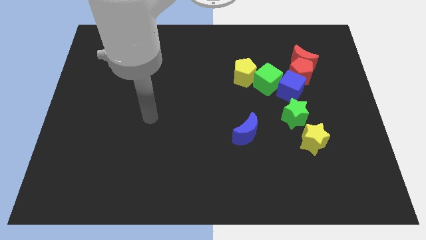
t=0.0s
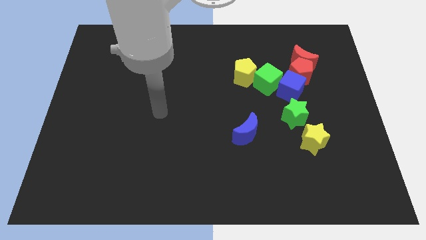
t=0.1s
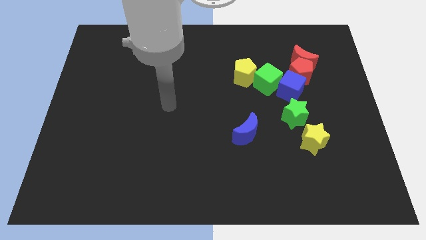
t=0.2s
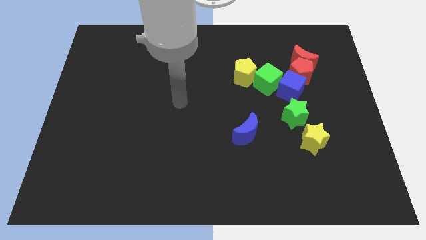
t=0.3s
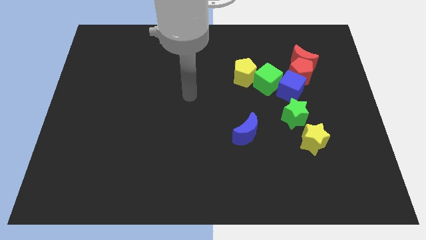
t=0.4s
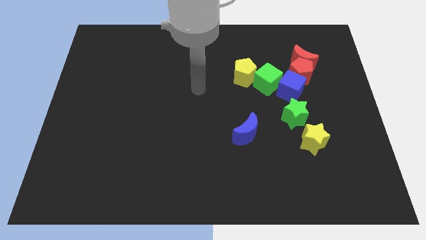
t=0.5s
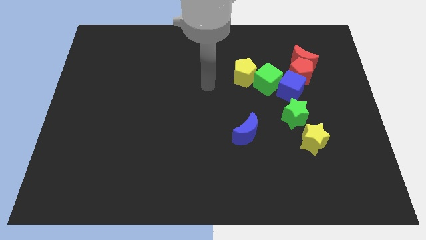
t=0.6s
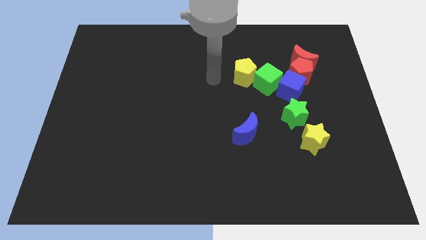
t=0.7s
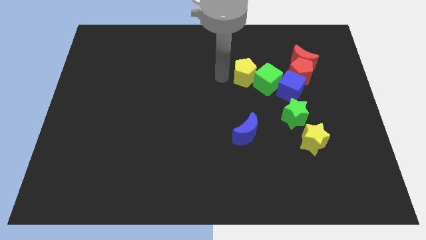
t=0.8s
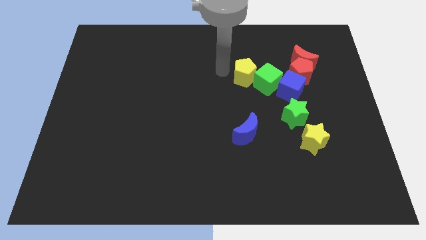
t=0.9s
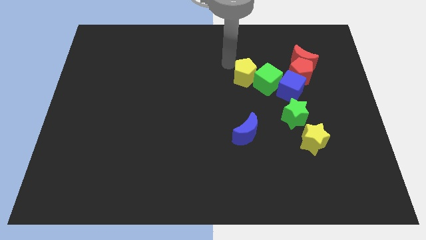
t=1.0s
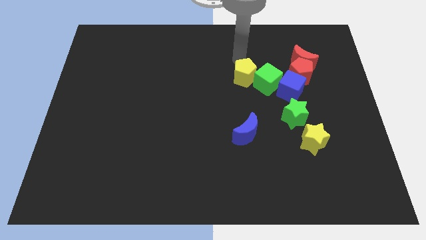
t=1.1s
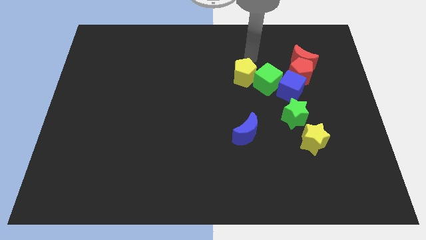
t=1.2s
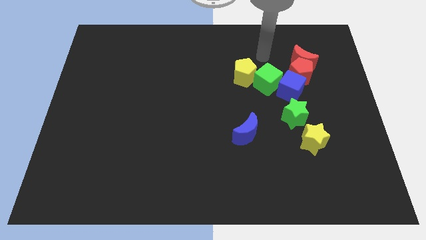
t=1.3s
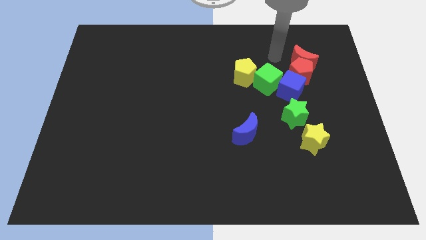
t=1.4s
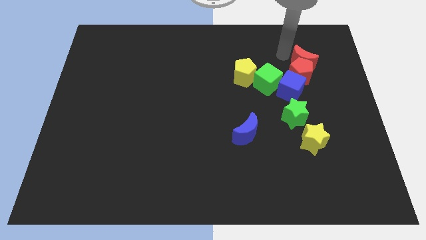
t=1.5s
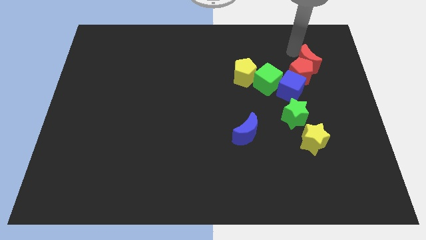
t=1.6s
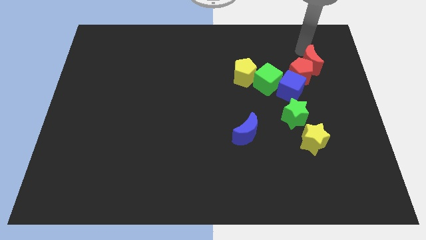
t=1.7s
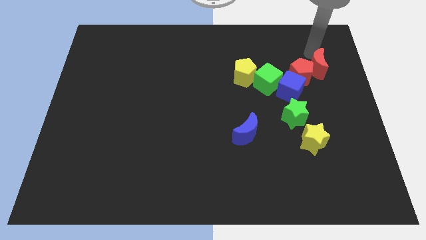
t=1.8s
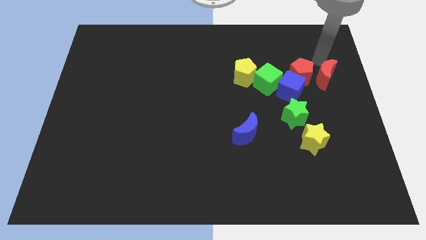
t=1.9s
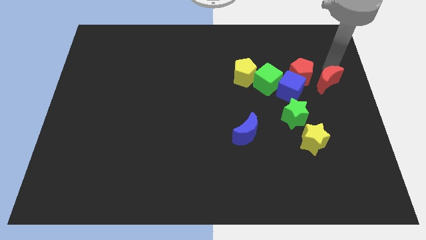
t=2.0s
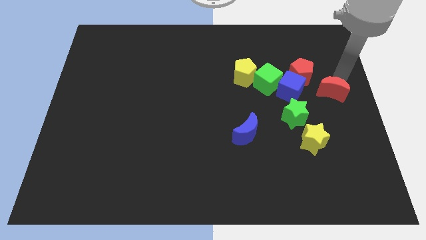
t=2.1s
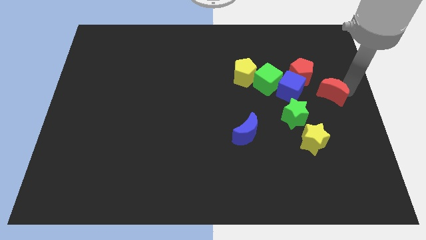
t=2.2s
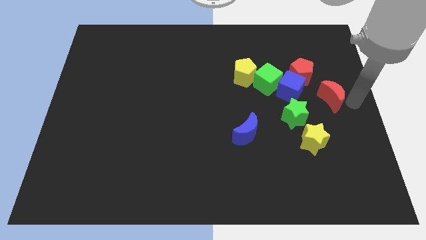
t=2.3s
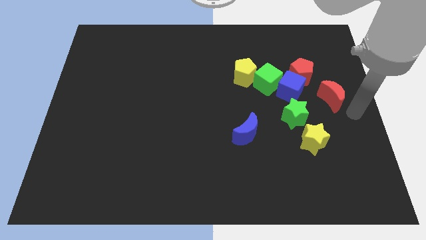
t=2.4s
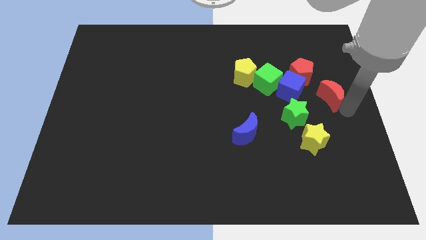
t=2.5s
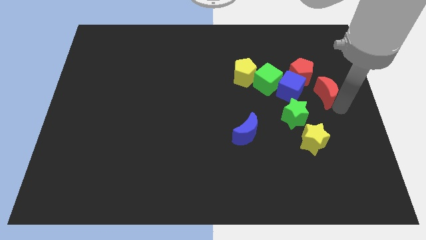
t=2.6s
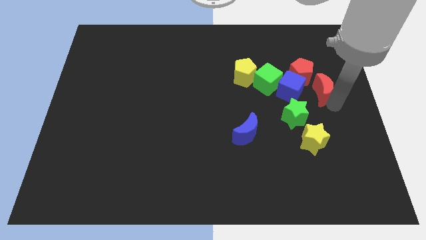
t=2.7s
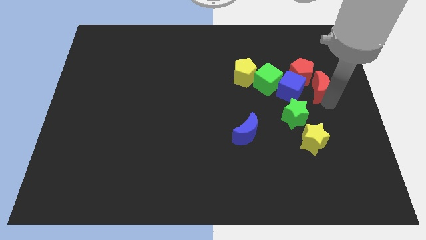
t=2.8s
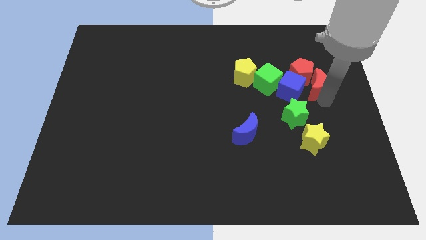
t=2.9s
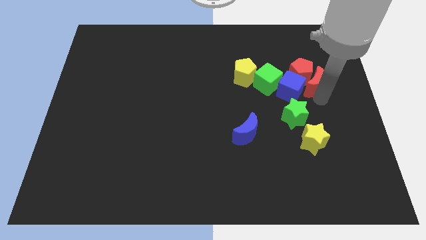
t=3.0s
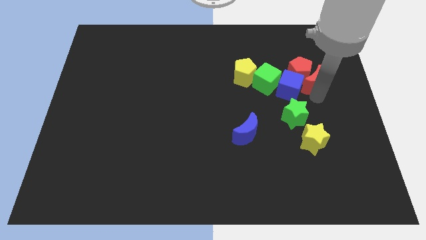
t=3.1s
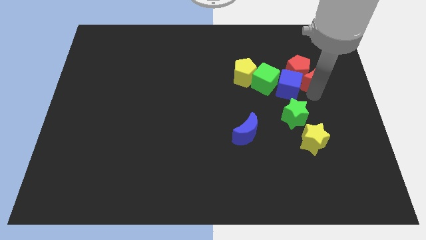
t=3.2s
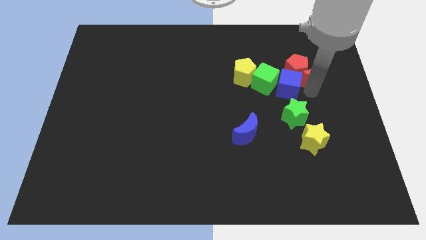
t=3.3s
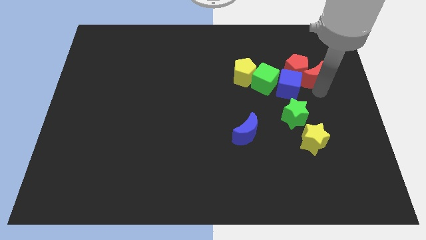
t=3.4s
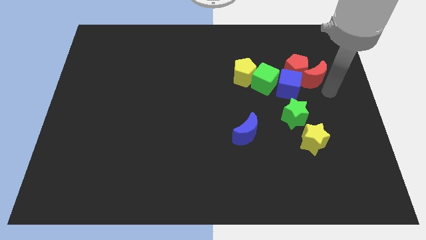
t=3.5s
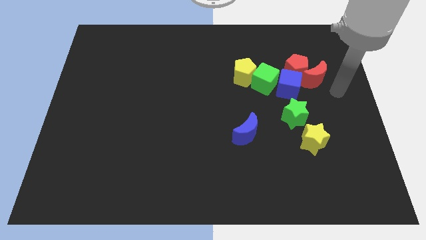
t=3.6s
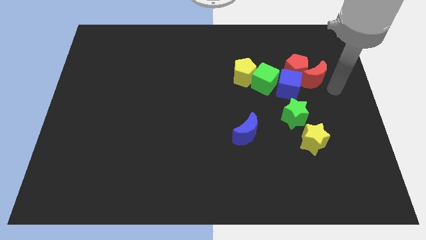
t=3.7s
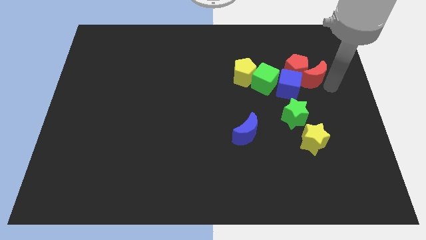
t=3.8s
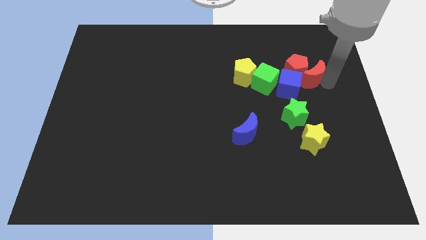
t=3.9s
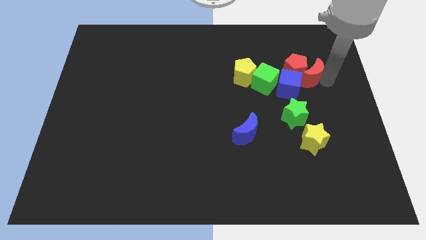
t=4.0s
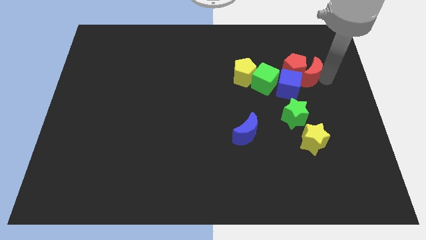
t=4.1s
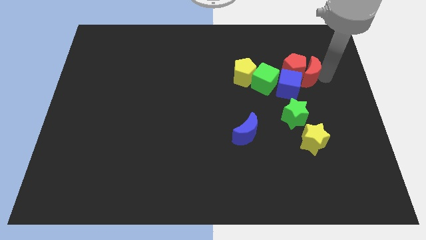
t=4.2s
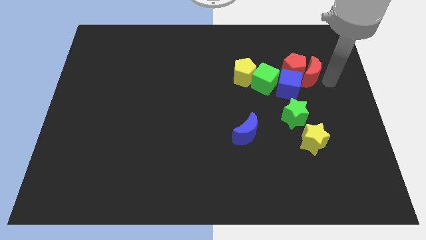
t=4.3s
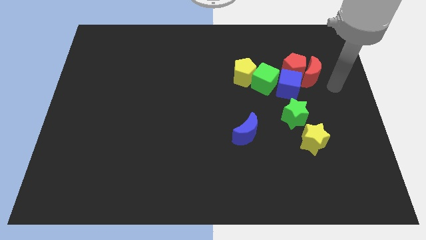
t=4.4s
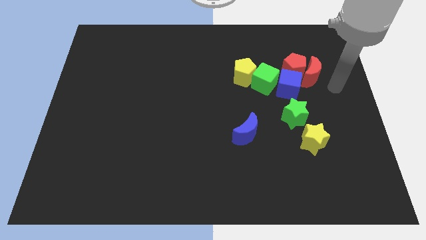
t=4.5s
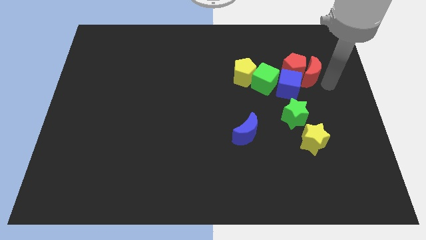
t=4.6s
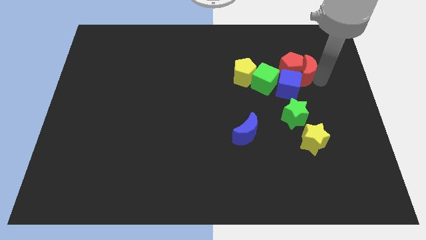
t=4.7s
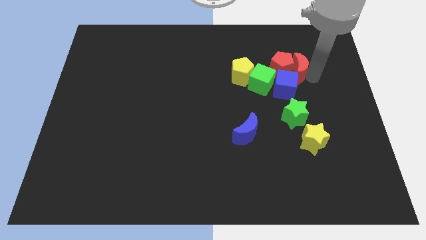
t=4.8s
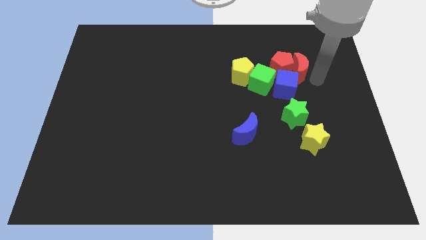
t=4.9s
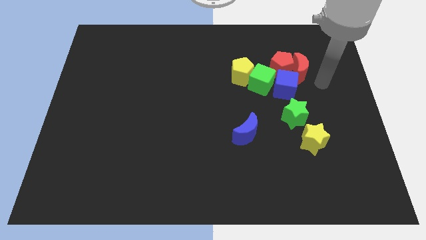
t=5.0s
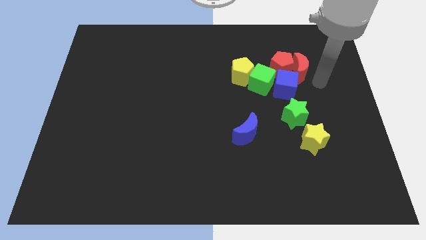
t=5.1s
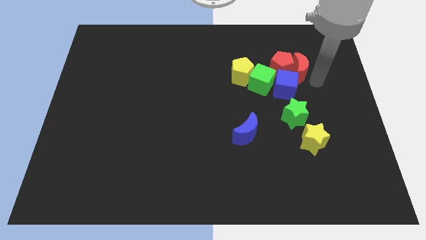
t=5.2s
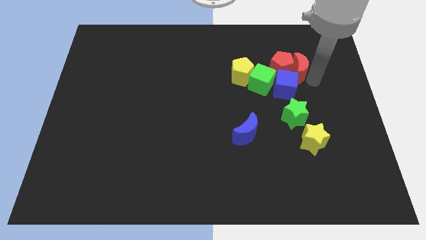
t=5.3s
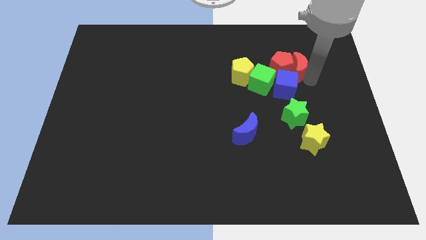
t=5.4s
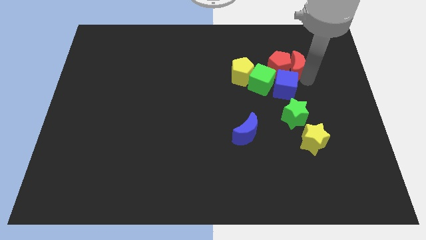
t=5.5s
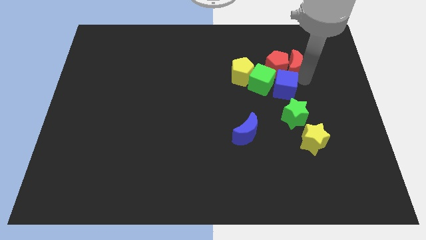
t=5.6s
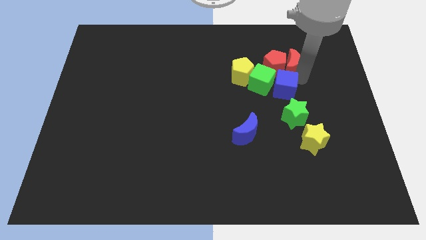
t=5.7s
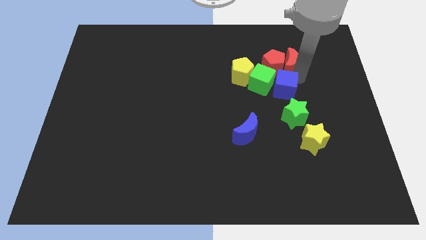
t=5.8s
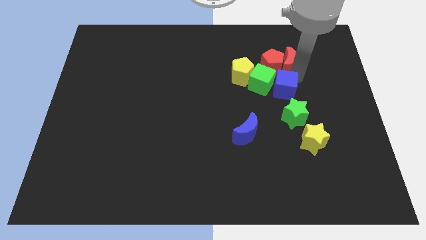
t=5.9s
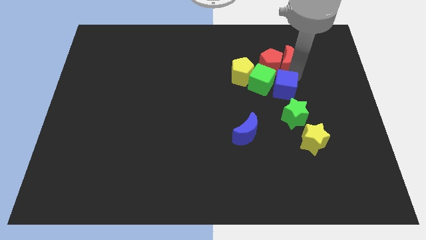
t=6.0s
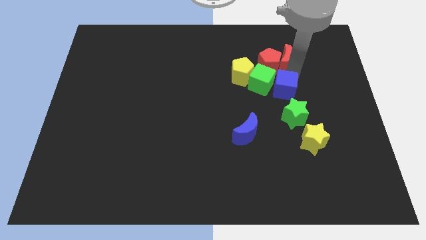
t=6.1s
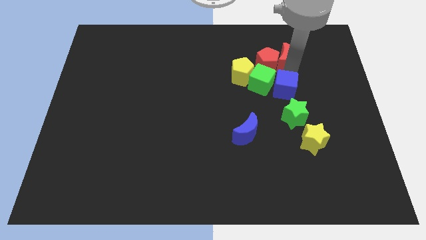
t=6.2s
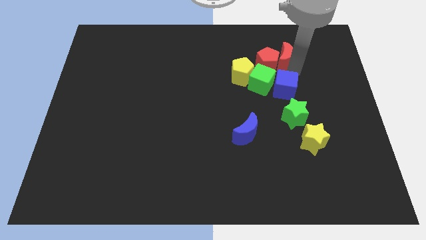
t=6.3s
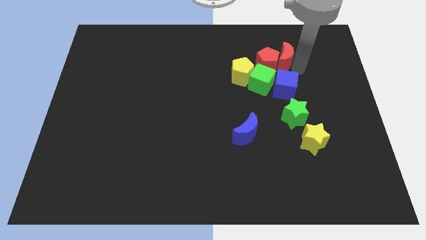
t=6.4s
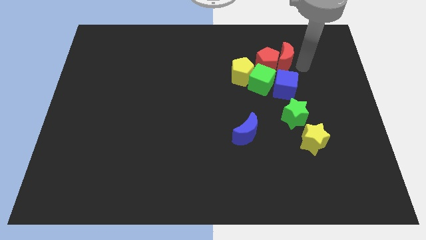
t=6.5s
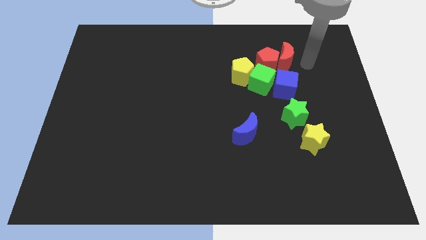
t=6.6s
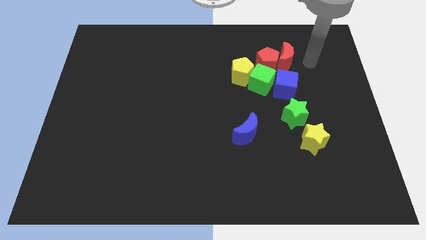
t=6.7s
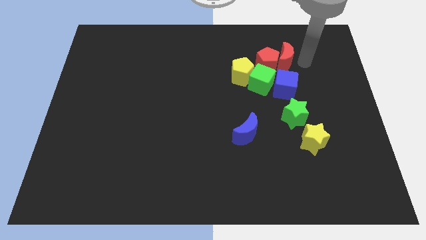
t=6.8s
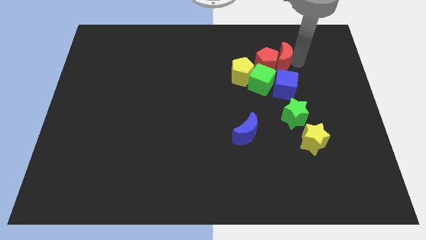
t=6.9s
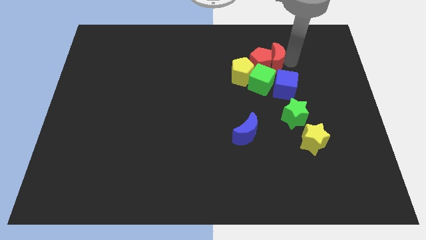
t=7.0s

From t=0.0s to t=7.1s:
slide the red moon to the top right side of the yellow pentagon
